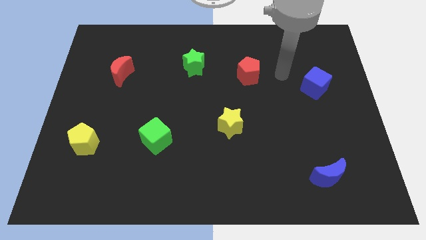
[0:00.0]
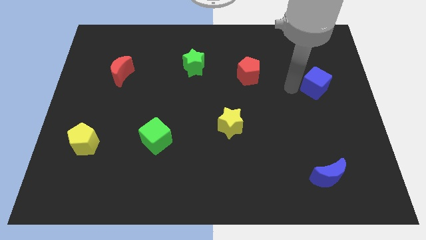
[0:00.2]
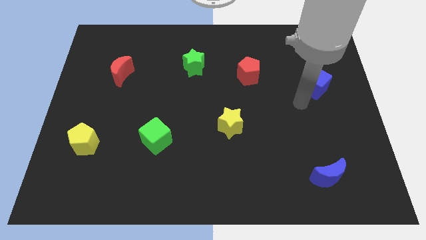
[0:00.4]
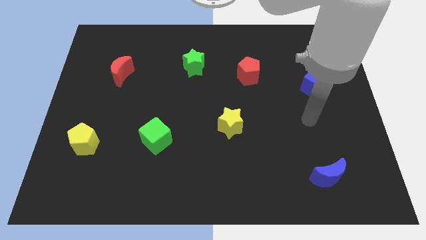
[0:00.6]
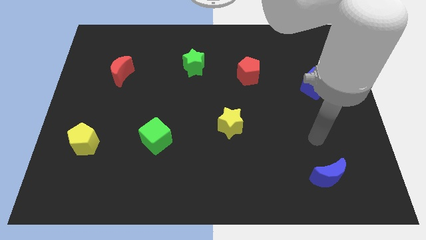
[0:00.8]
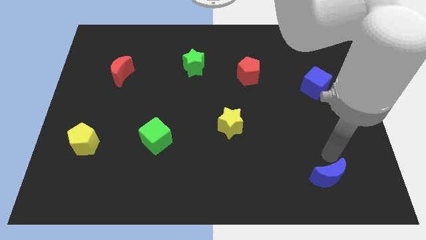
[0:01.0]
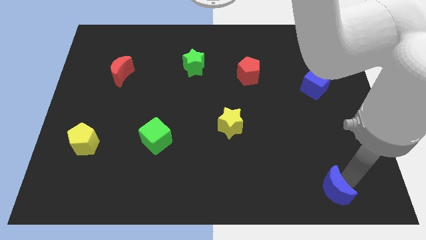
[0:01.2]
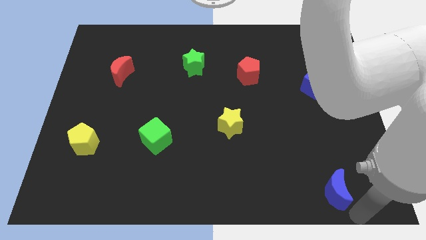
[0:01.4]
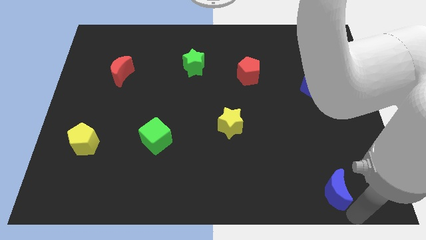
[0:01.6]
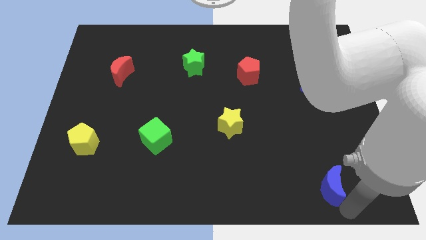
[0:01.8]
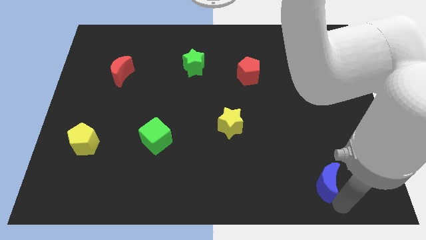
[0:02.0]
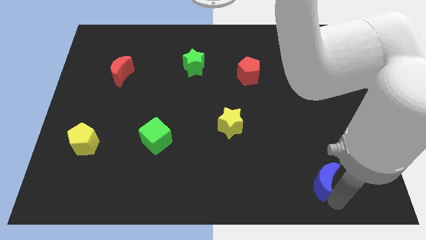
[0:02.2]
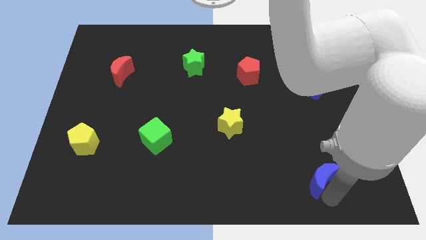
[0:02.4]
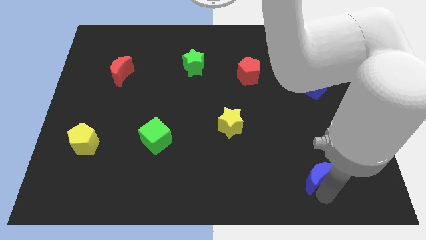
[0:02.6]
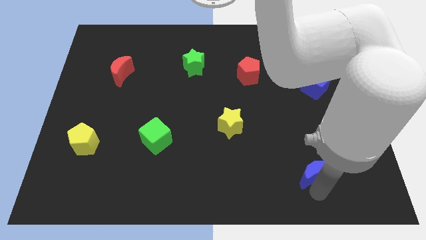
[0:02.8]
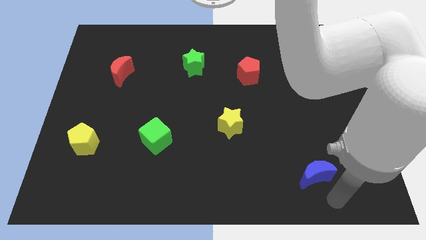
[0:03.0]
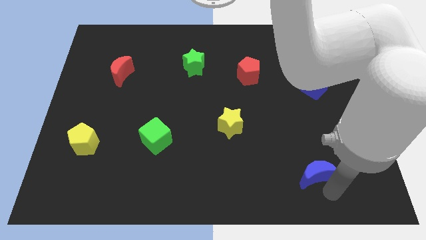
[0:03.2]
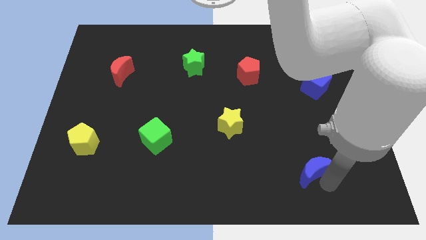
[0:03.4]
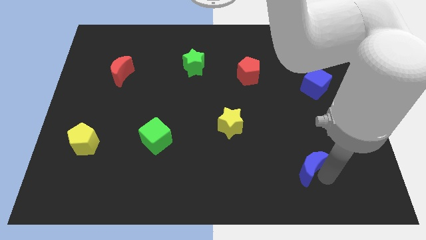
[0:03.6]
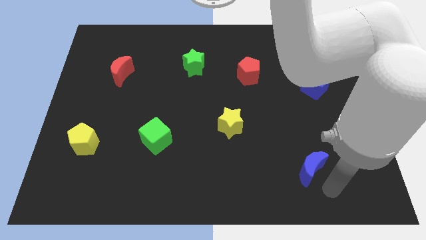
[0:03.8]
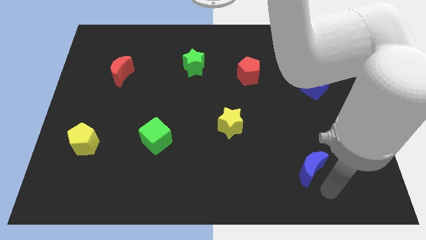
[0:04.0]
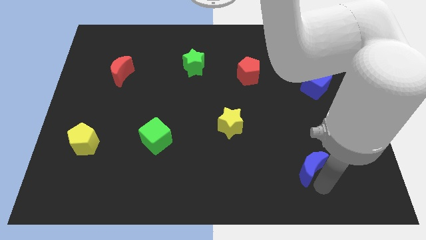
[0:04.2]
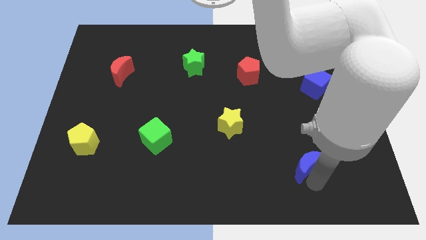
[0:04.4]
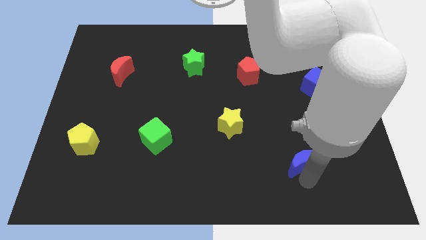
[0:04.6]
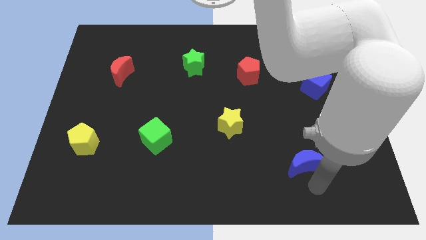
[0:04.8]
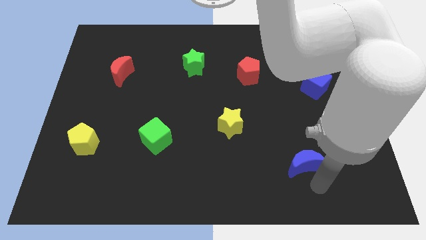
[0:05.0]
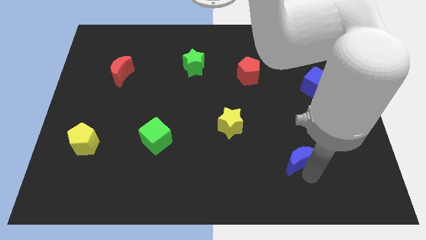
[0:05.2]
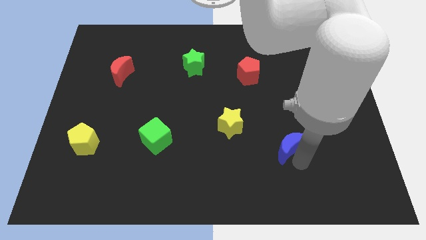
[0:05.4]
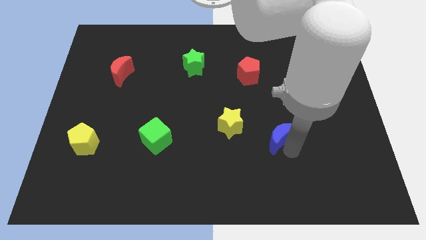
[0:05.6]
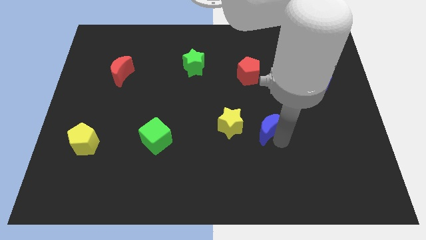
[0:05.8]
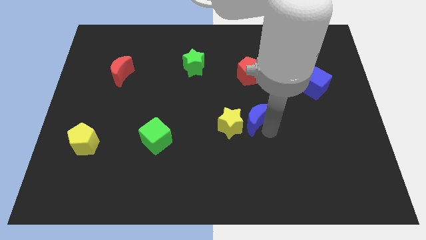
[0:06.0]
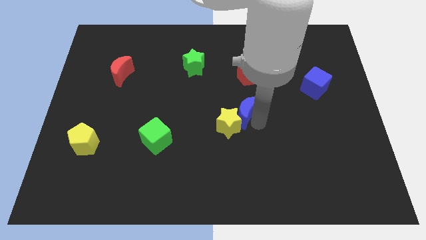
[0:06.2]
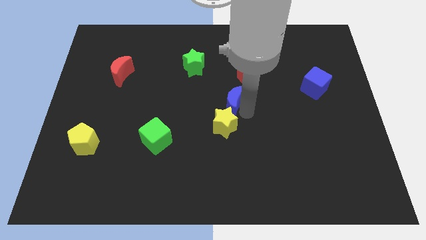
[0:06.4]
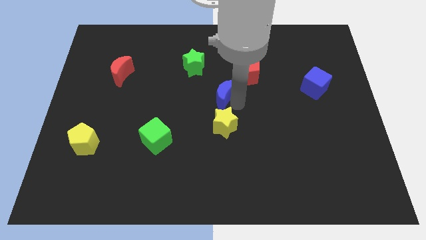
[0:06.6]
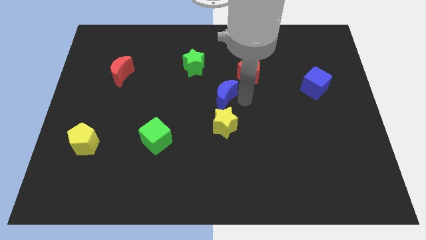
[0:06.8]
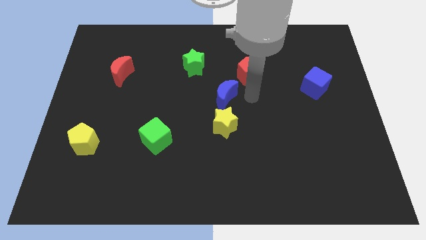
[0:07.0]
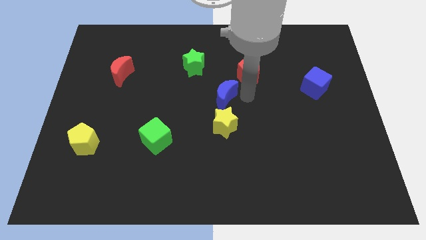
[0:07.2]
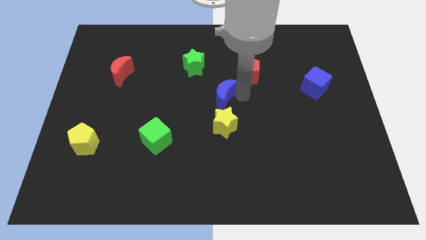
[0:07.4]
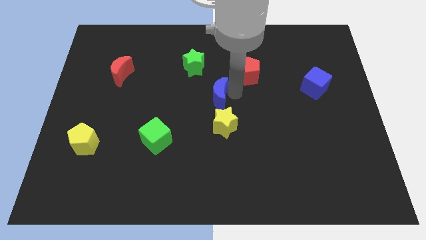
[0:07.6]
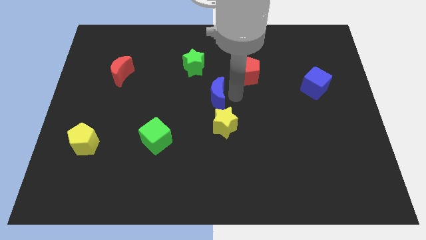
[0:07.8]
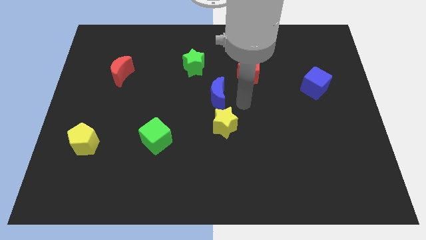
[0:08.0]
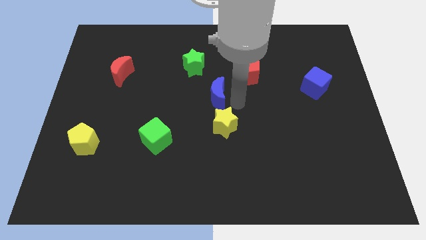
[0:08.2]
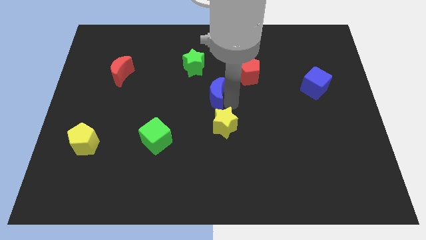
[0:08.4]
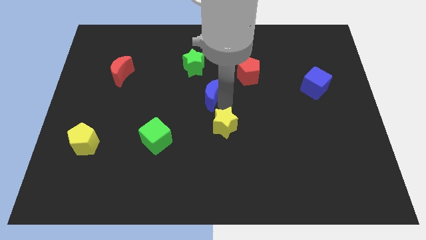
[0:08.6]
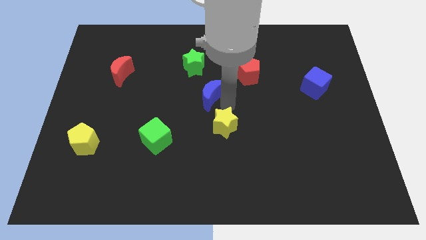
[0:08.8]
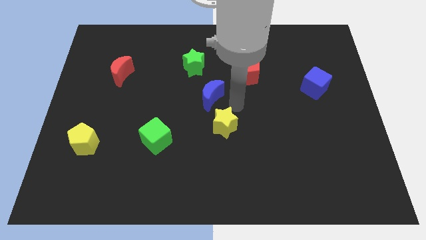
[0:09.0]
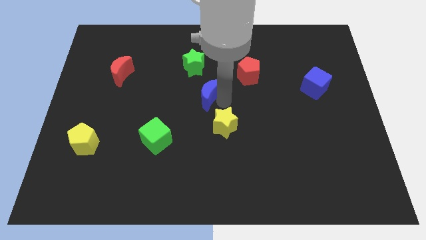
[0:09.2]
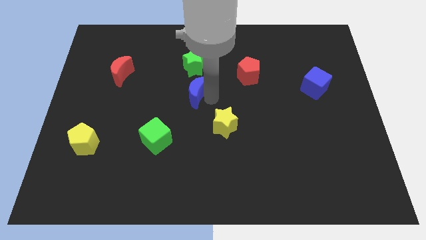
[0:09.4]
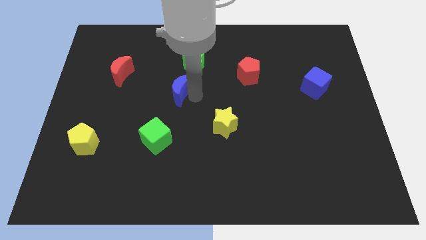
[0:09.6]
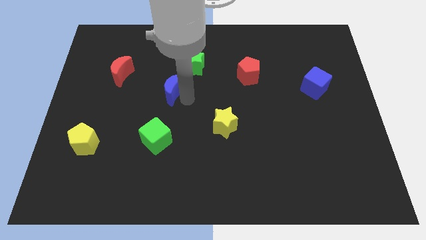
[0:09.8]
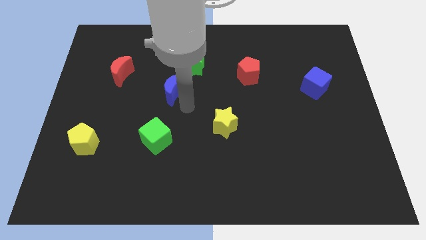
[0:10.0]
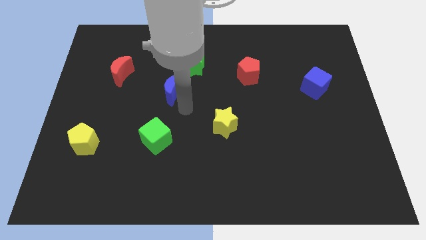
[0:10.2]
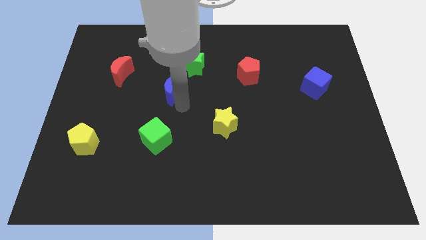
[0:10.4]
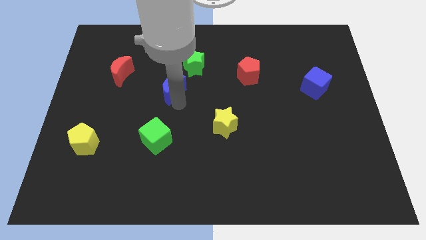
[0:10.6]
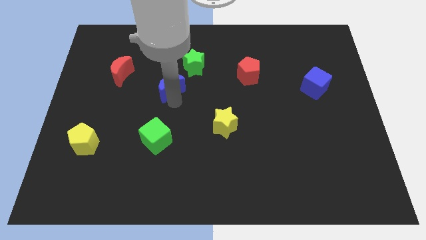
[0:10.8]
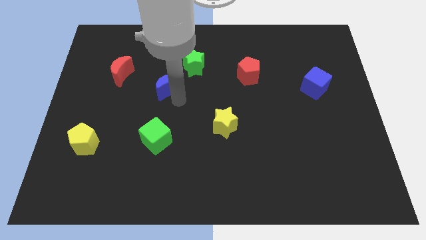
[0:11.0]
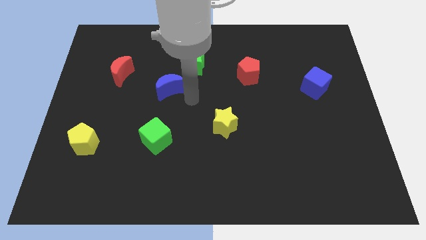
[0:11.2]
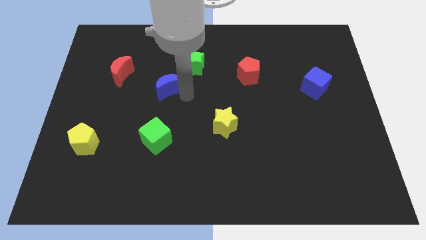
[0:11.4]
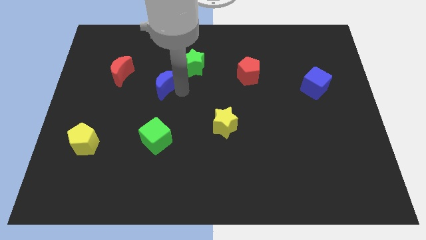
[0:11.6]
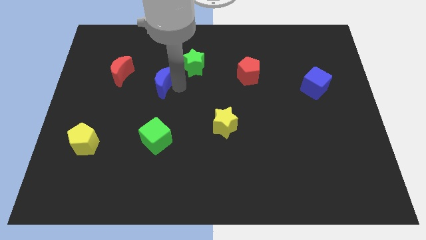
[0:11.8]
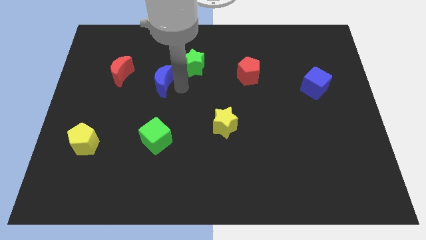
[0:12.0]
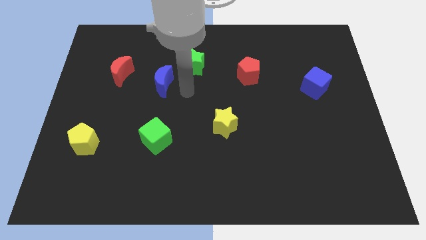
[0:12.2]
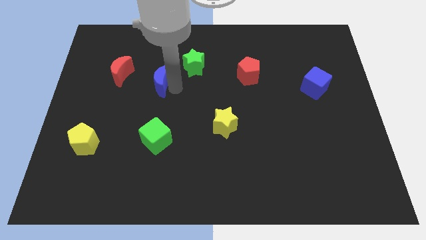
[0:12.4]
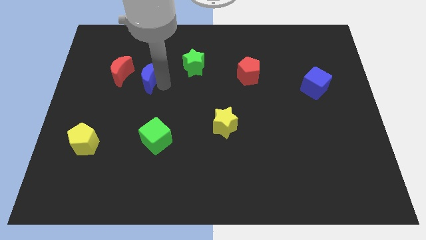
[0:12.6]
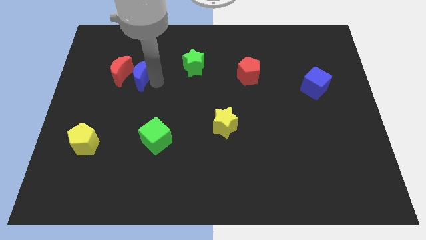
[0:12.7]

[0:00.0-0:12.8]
push the blue moon close to the red moon

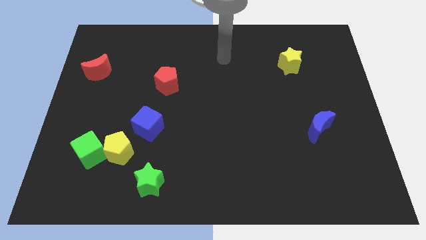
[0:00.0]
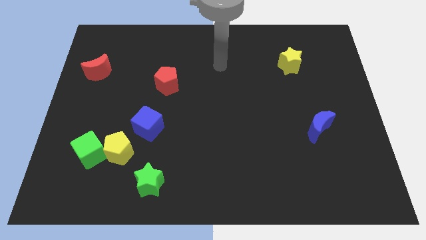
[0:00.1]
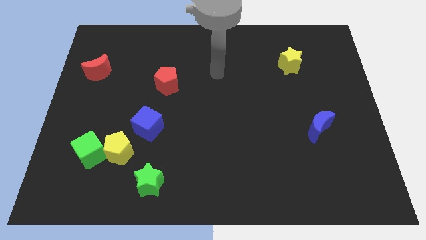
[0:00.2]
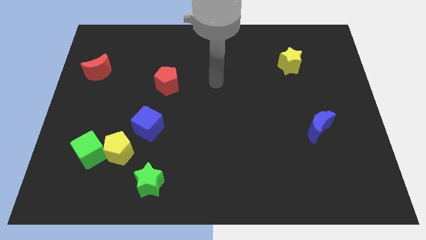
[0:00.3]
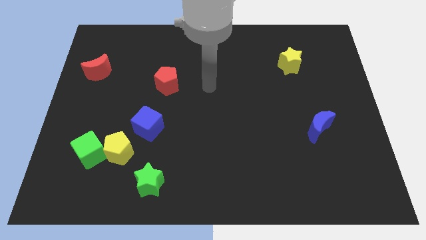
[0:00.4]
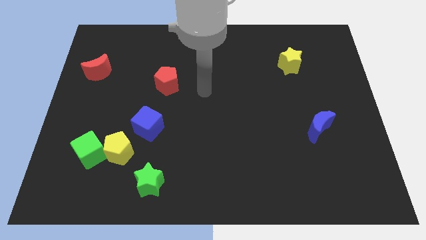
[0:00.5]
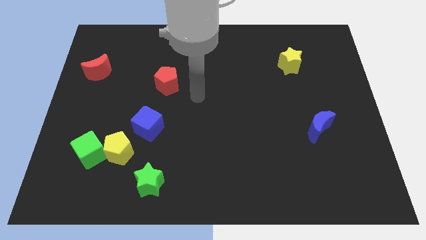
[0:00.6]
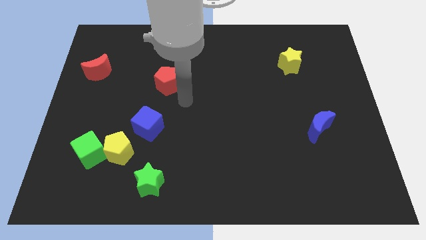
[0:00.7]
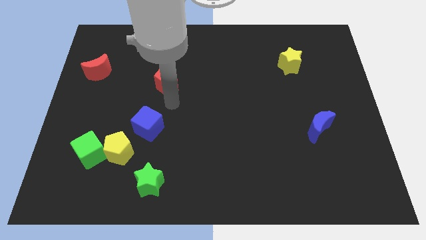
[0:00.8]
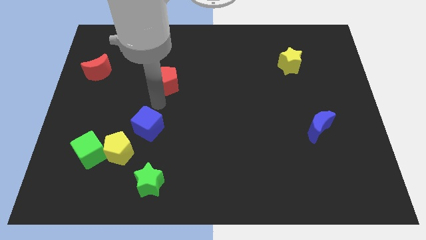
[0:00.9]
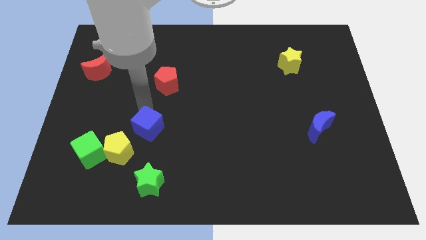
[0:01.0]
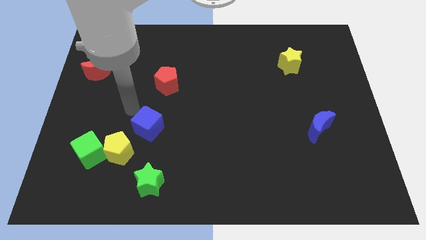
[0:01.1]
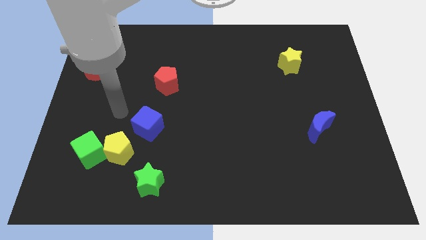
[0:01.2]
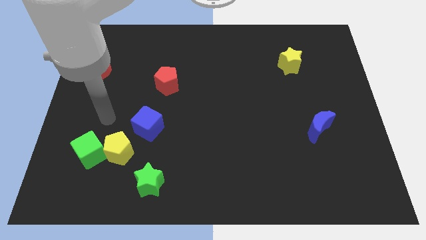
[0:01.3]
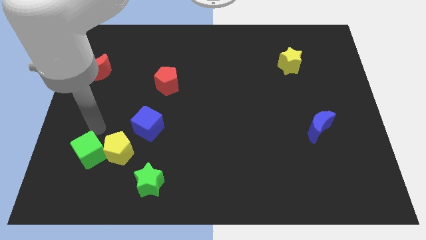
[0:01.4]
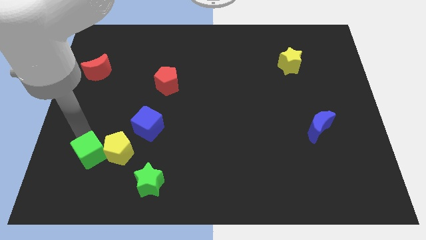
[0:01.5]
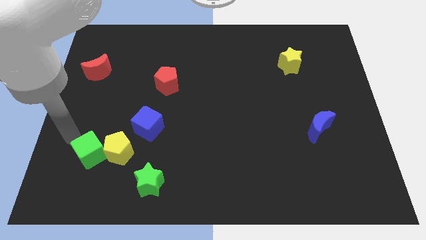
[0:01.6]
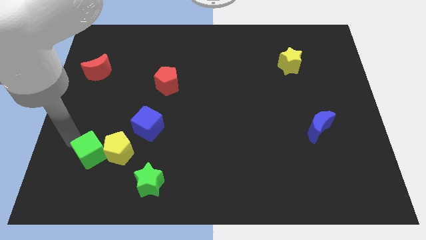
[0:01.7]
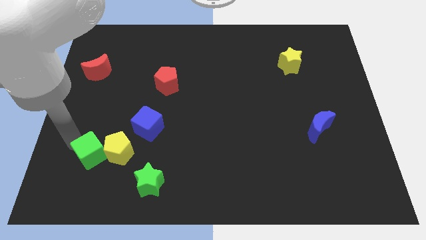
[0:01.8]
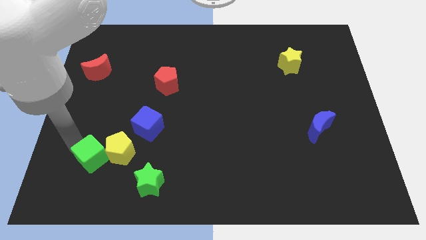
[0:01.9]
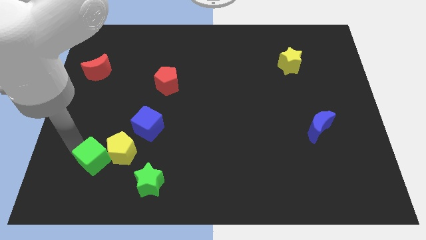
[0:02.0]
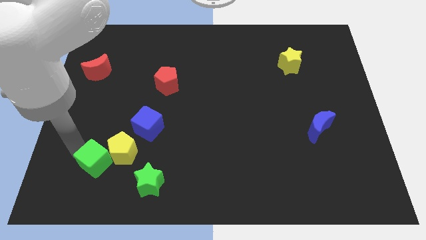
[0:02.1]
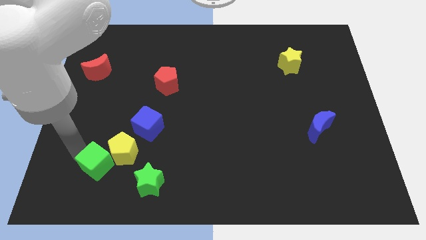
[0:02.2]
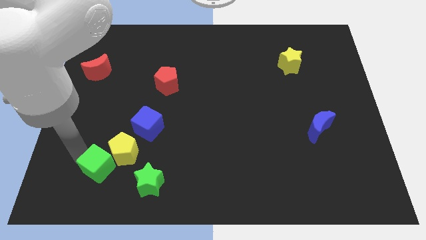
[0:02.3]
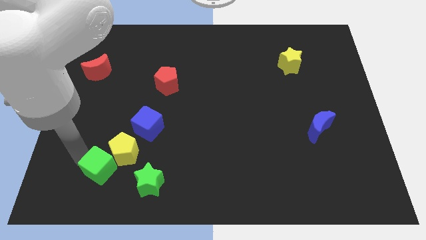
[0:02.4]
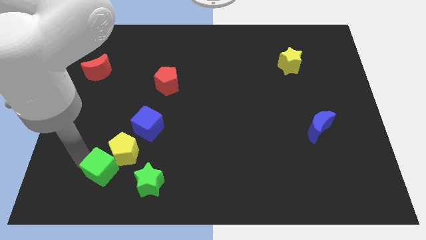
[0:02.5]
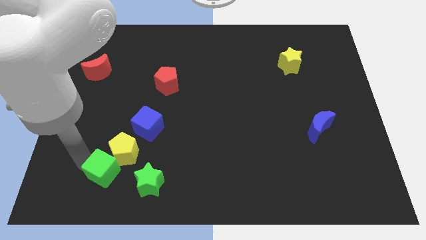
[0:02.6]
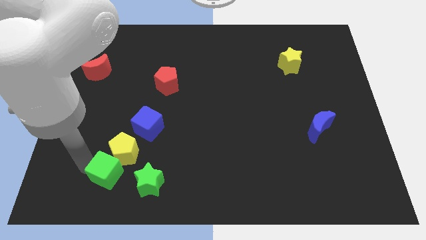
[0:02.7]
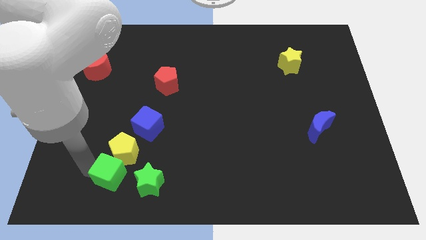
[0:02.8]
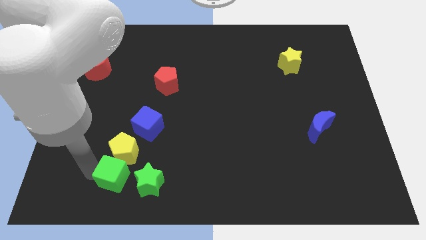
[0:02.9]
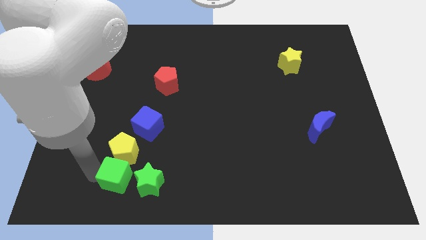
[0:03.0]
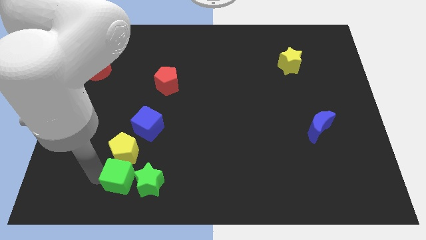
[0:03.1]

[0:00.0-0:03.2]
slide the green cube towards the green star
